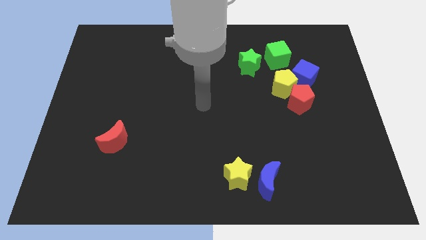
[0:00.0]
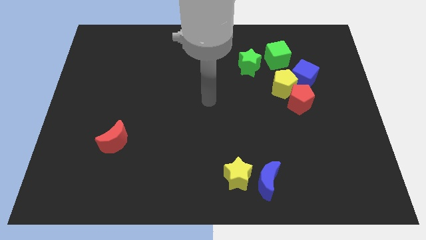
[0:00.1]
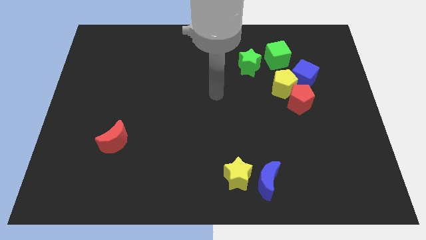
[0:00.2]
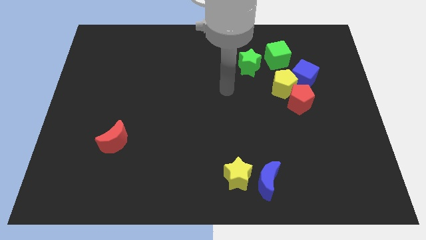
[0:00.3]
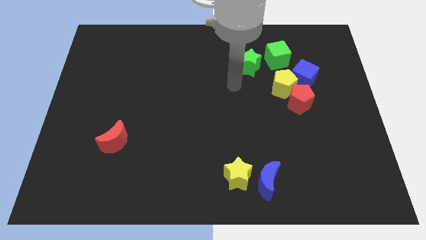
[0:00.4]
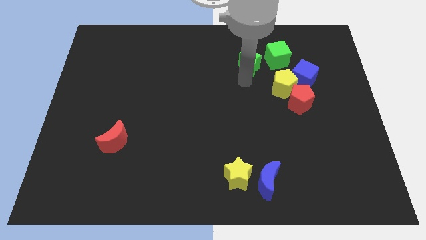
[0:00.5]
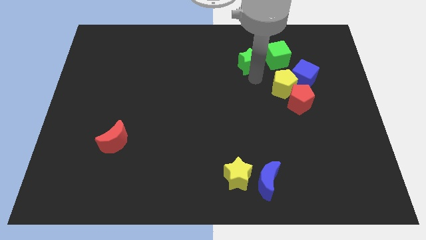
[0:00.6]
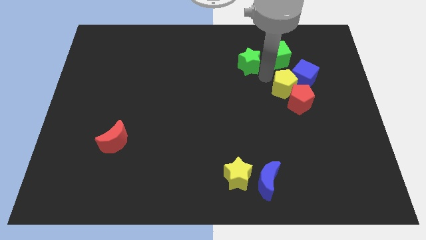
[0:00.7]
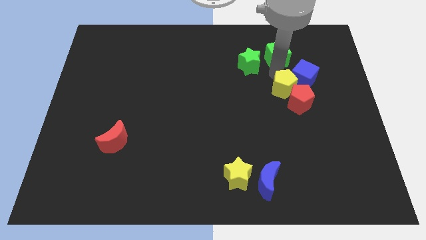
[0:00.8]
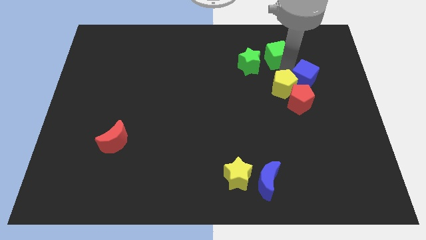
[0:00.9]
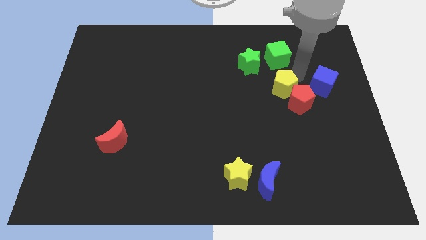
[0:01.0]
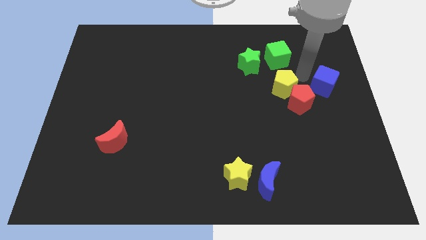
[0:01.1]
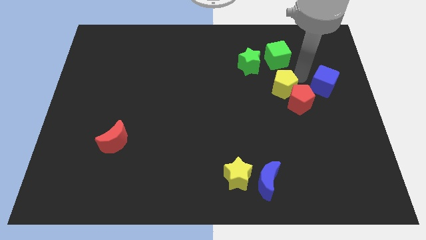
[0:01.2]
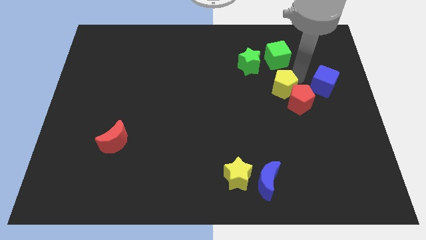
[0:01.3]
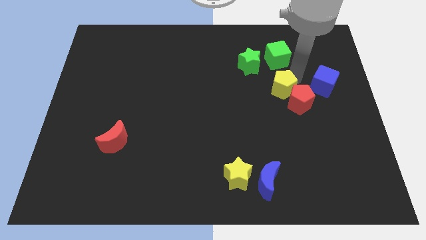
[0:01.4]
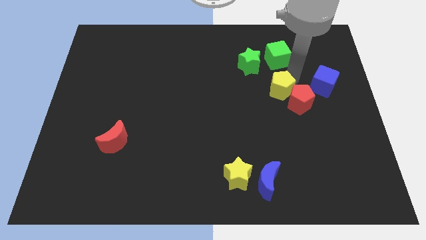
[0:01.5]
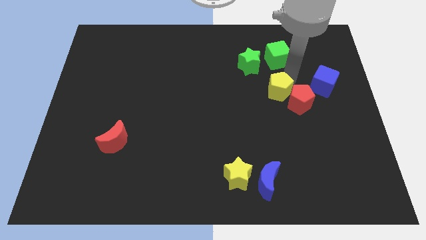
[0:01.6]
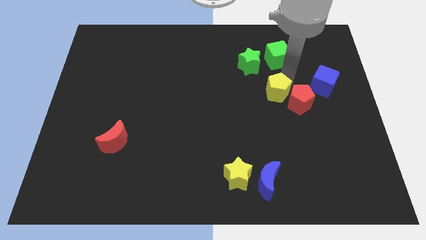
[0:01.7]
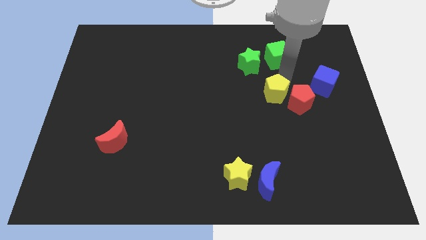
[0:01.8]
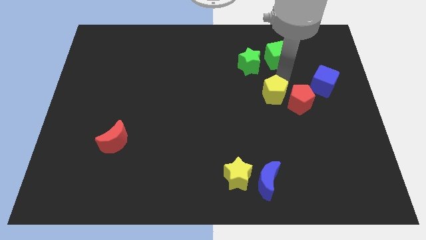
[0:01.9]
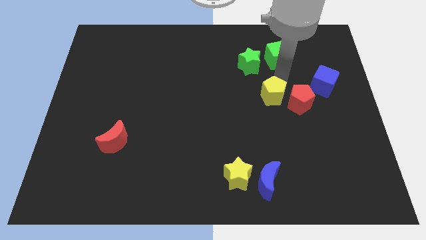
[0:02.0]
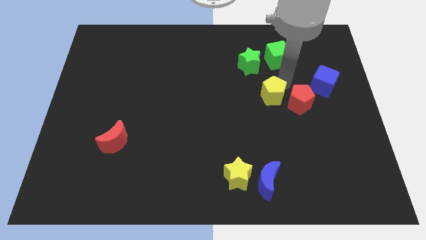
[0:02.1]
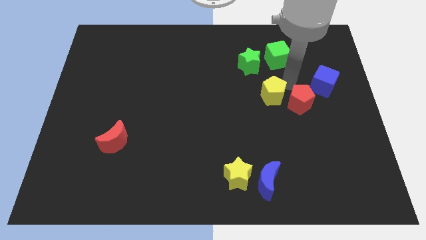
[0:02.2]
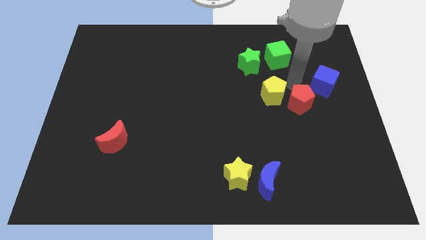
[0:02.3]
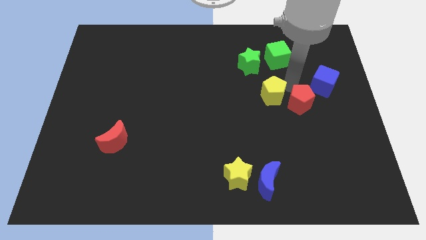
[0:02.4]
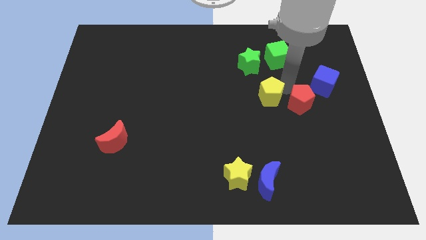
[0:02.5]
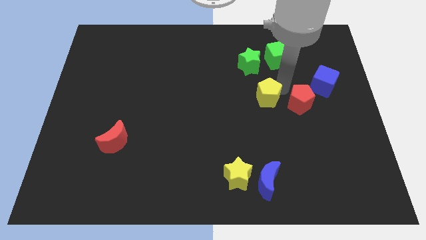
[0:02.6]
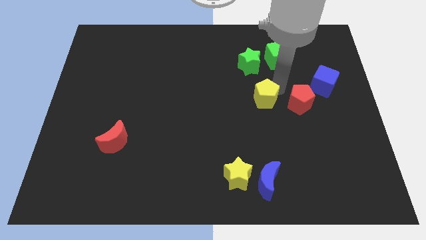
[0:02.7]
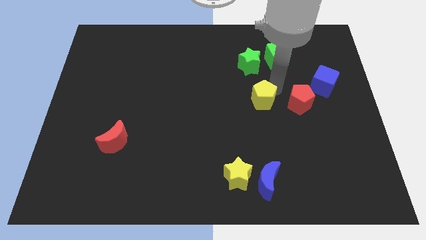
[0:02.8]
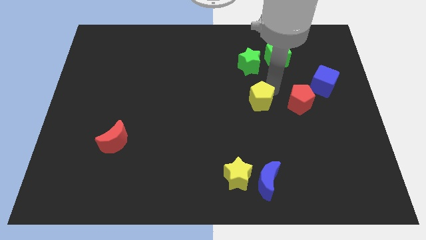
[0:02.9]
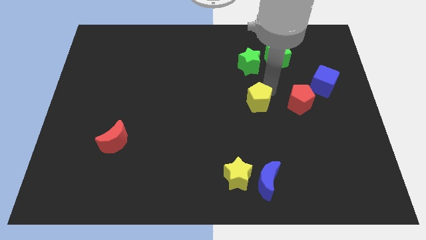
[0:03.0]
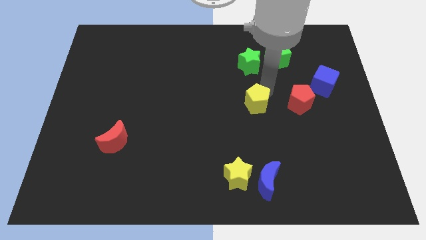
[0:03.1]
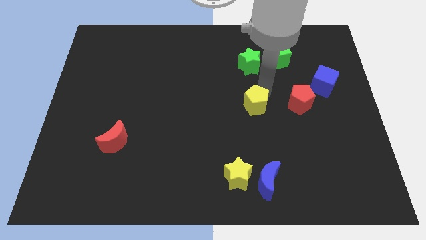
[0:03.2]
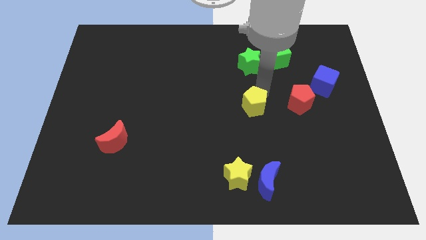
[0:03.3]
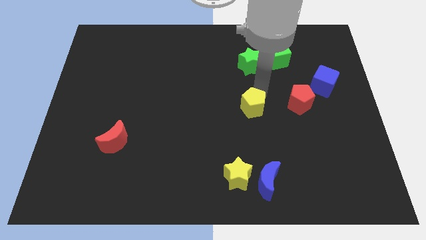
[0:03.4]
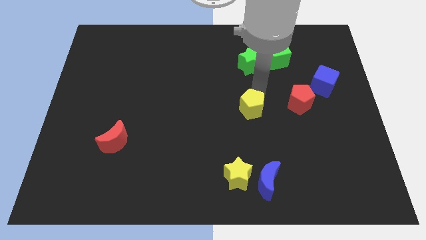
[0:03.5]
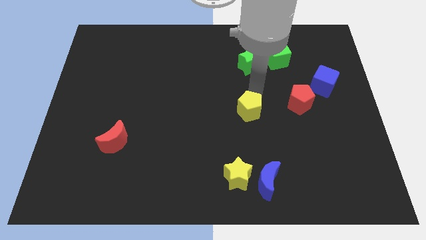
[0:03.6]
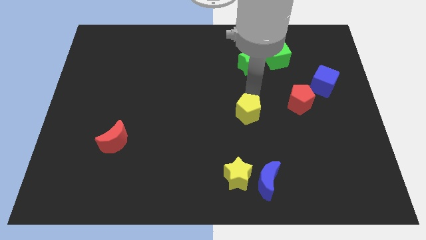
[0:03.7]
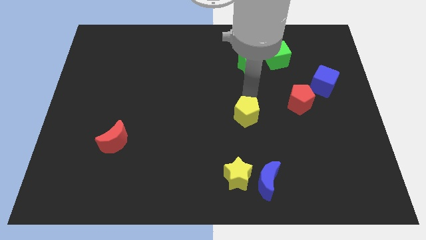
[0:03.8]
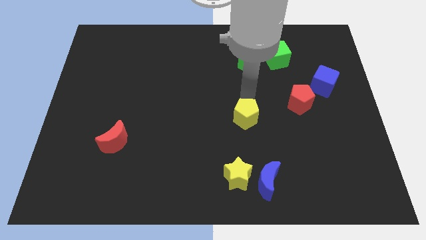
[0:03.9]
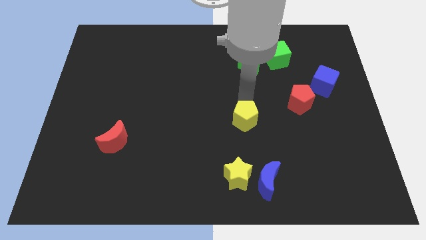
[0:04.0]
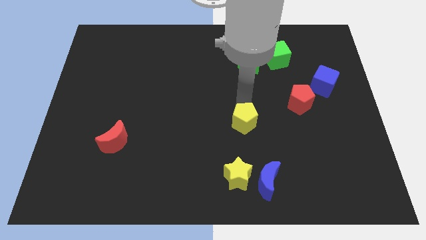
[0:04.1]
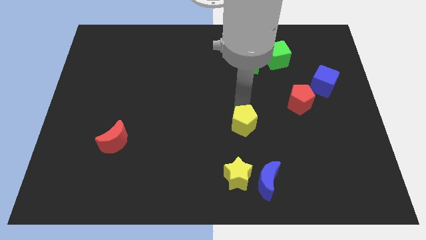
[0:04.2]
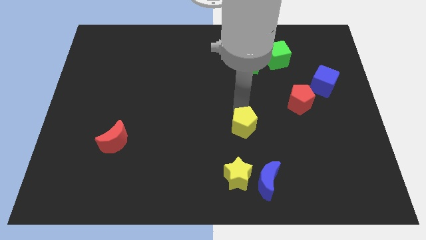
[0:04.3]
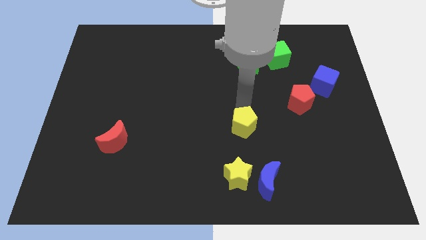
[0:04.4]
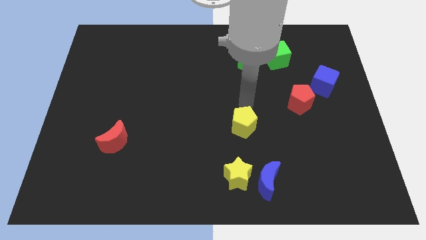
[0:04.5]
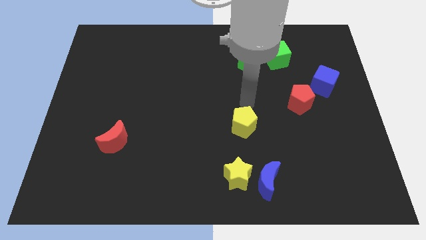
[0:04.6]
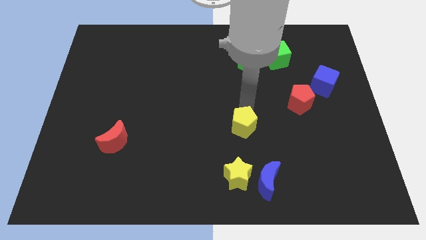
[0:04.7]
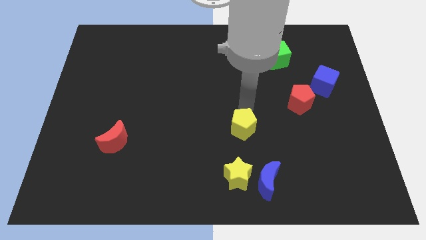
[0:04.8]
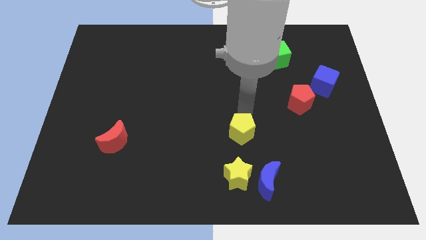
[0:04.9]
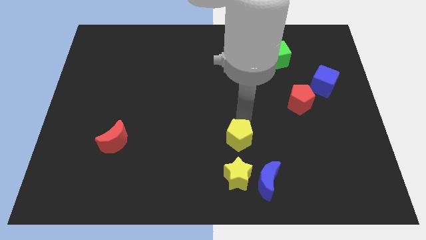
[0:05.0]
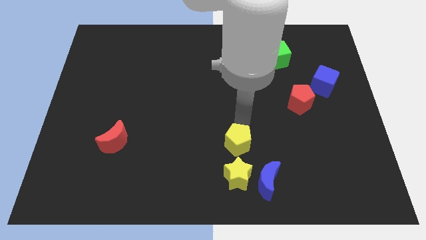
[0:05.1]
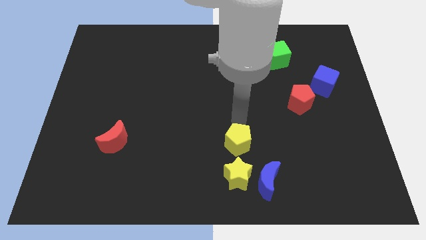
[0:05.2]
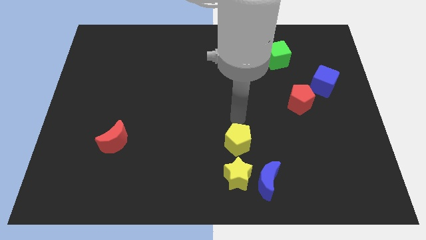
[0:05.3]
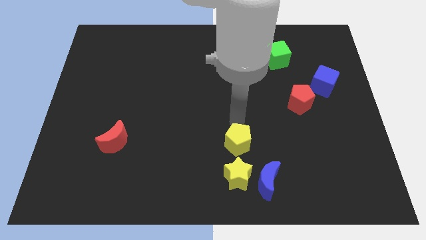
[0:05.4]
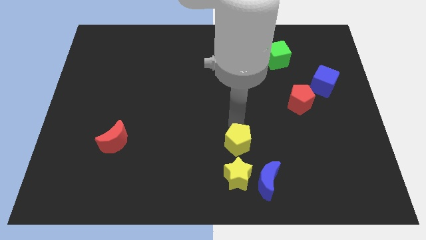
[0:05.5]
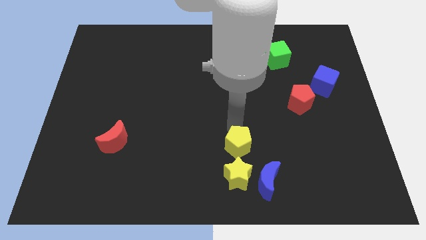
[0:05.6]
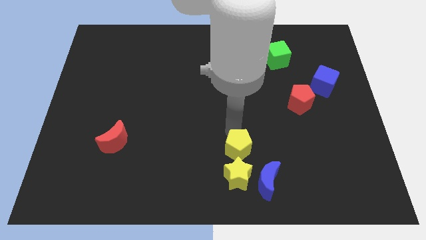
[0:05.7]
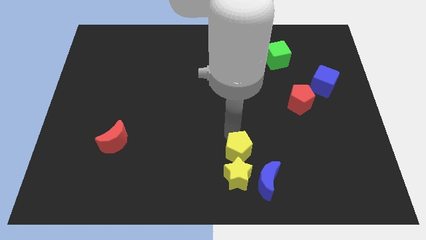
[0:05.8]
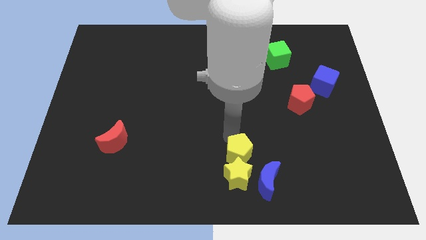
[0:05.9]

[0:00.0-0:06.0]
slide the yellow pentagon next to the yellow star

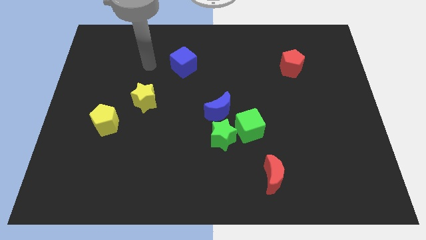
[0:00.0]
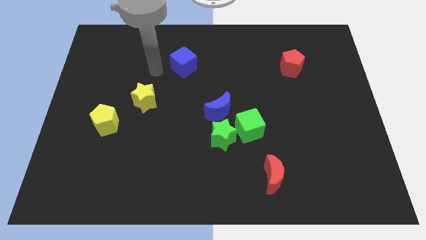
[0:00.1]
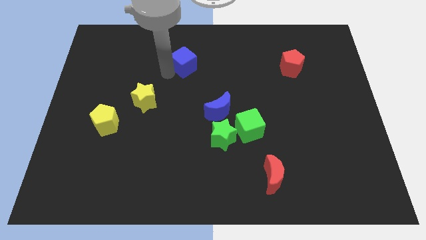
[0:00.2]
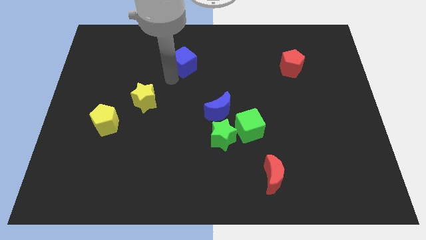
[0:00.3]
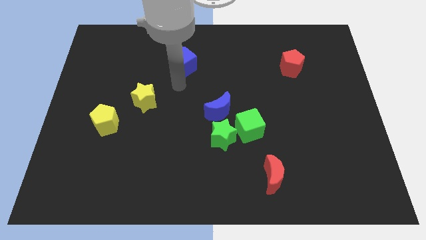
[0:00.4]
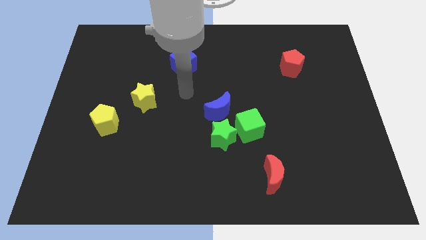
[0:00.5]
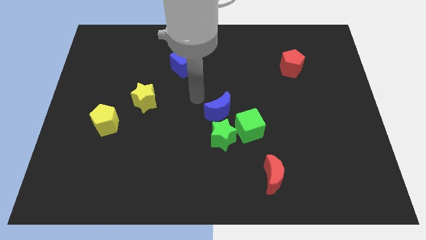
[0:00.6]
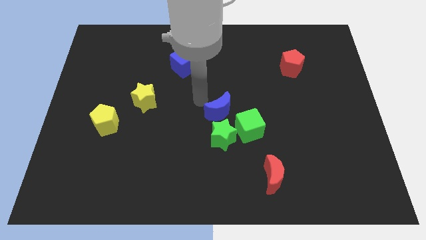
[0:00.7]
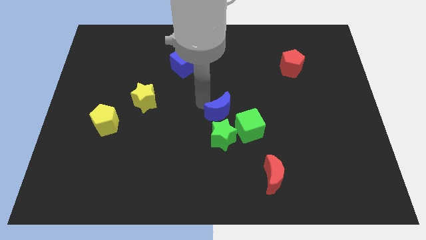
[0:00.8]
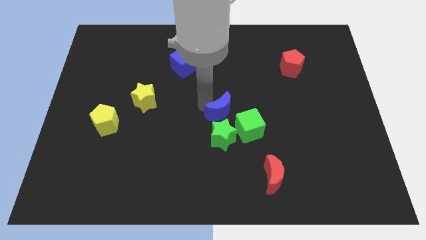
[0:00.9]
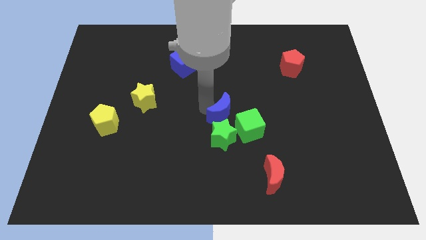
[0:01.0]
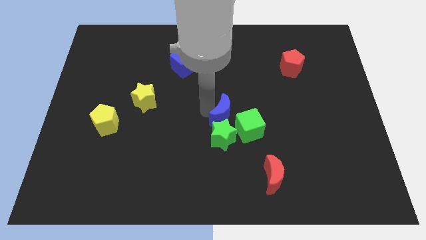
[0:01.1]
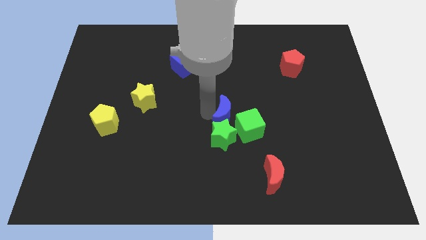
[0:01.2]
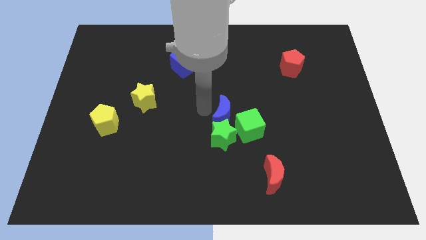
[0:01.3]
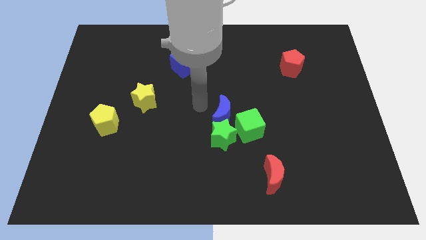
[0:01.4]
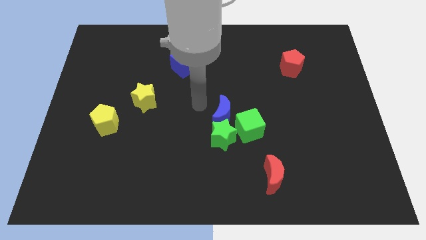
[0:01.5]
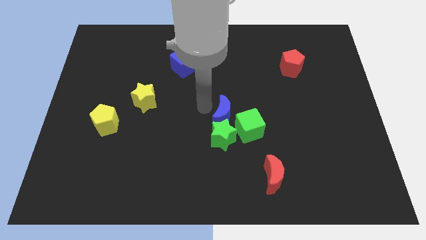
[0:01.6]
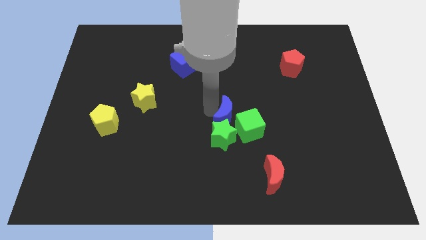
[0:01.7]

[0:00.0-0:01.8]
move the blue moon to the green cube

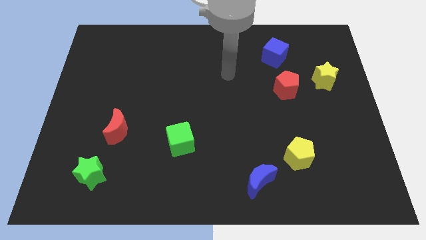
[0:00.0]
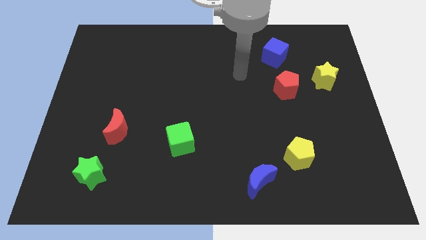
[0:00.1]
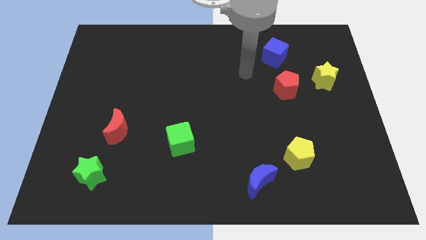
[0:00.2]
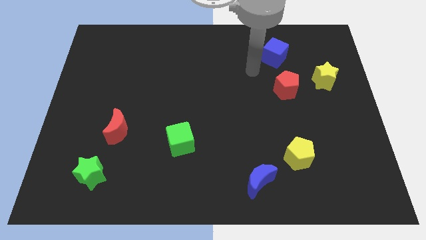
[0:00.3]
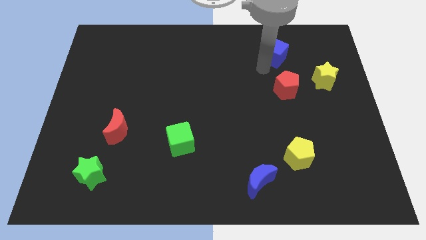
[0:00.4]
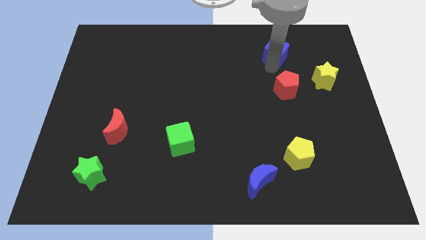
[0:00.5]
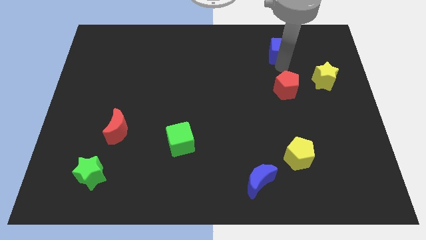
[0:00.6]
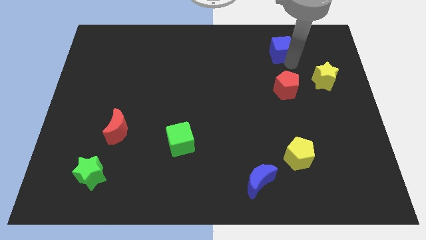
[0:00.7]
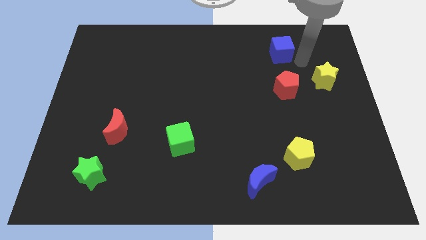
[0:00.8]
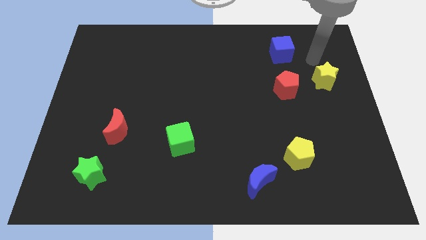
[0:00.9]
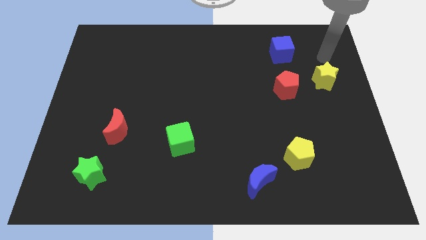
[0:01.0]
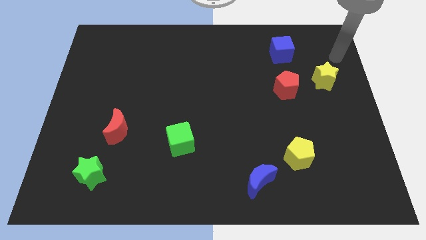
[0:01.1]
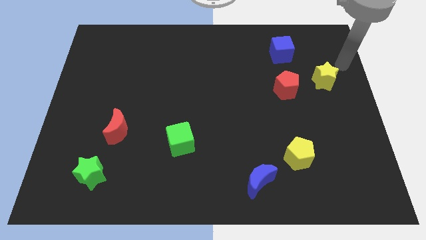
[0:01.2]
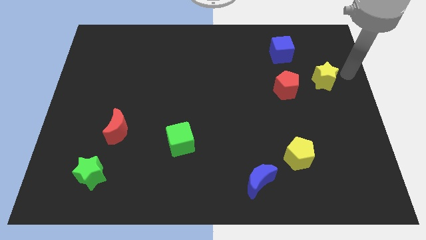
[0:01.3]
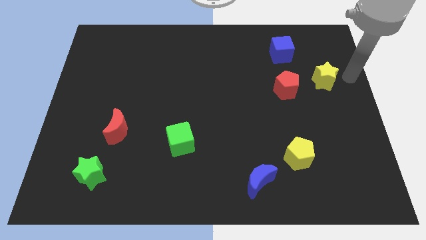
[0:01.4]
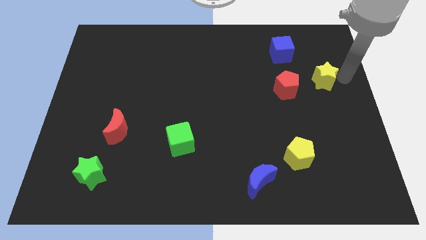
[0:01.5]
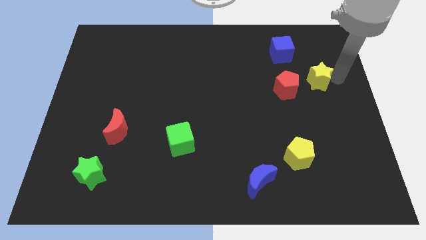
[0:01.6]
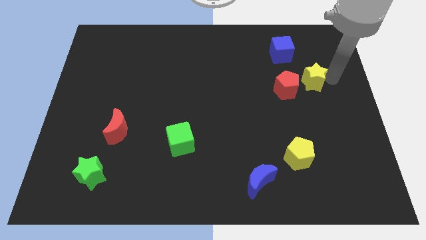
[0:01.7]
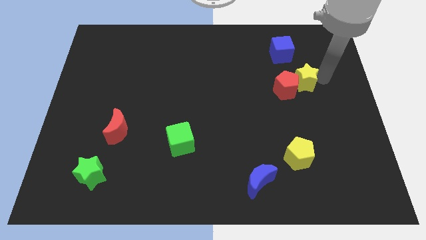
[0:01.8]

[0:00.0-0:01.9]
put the yellow star close to the red pentagon
